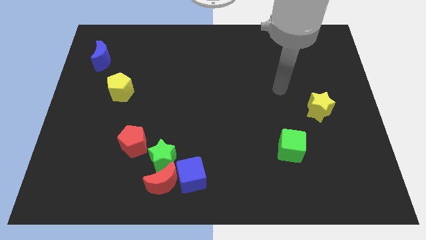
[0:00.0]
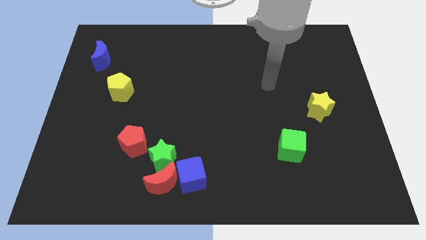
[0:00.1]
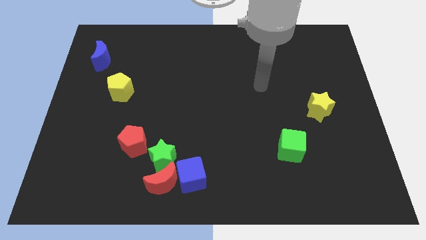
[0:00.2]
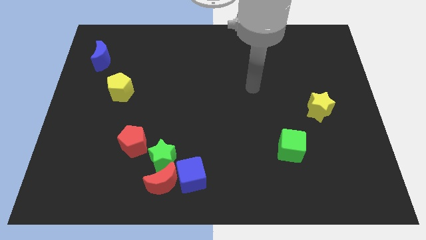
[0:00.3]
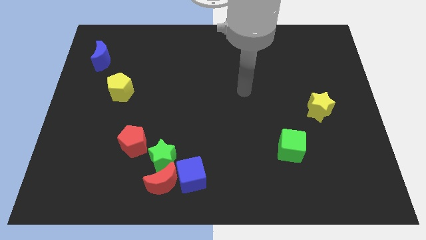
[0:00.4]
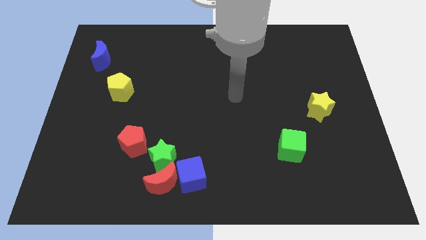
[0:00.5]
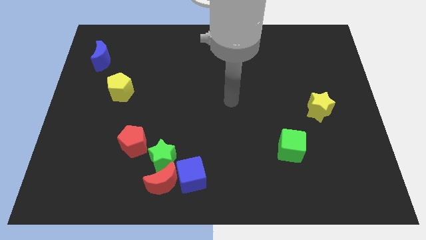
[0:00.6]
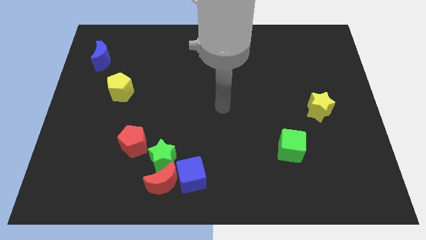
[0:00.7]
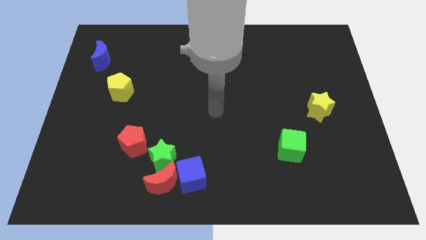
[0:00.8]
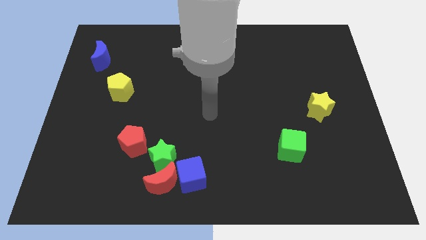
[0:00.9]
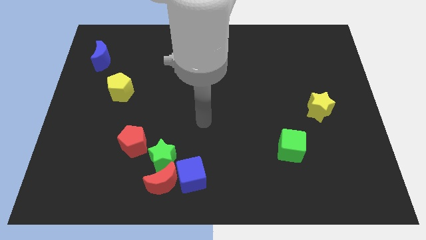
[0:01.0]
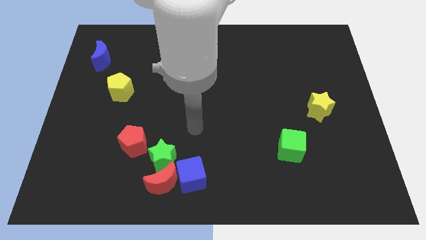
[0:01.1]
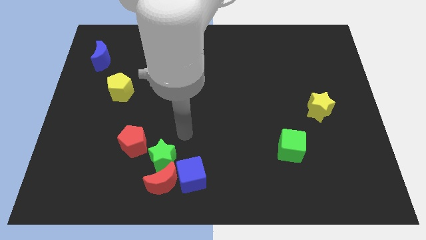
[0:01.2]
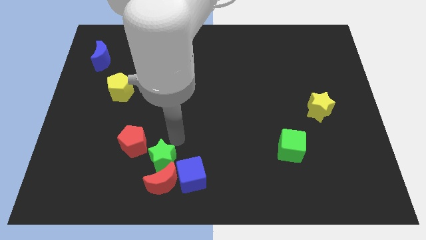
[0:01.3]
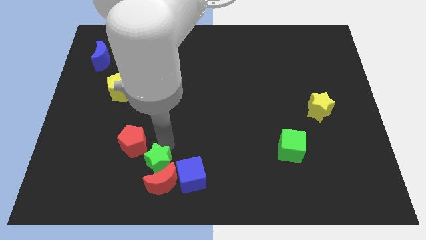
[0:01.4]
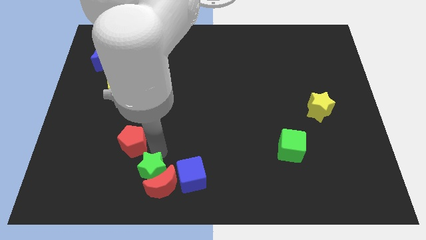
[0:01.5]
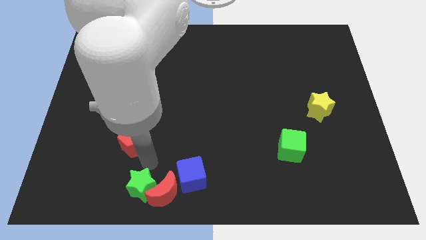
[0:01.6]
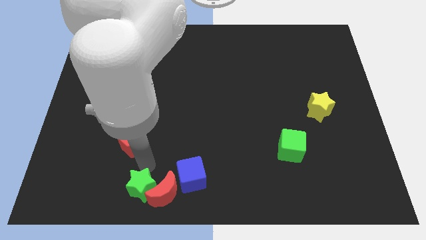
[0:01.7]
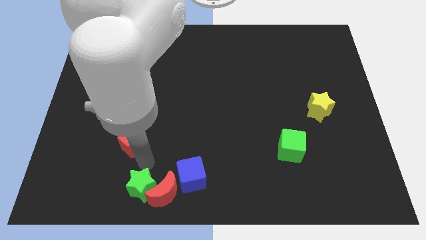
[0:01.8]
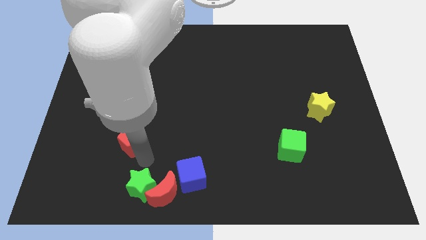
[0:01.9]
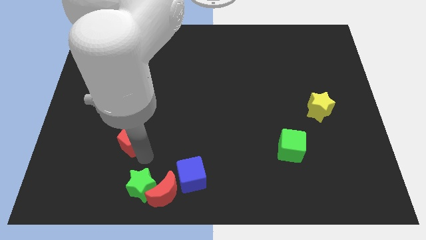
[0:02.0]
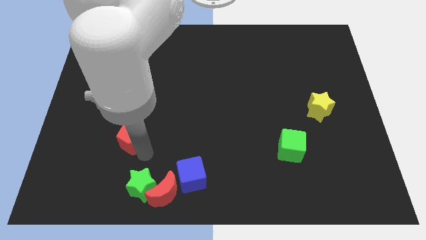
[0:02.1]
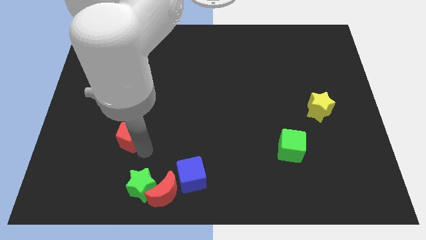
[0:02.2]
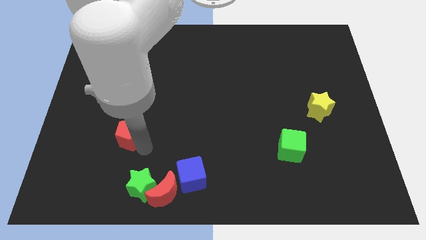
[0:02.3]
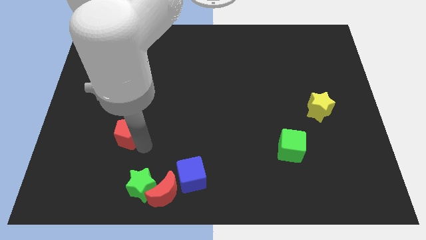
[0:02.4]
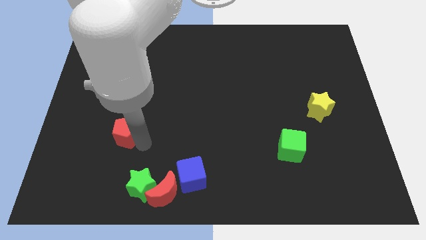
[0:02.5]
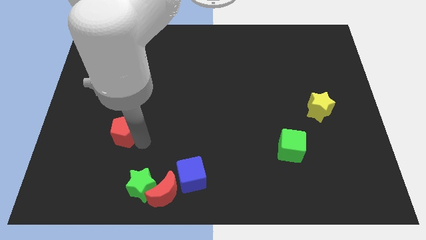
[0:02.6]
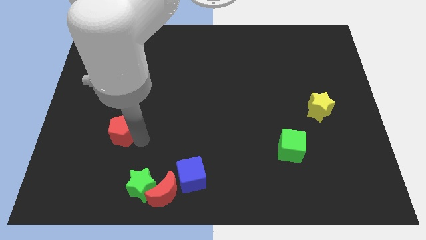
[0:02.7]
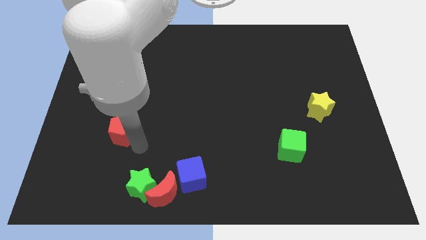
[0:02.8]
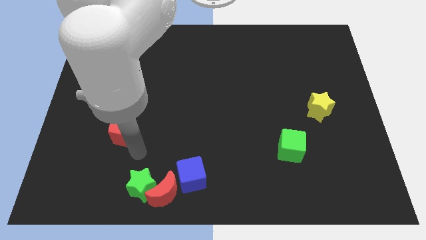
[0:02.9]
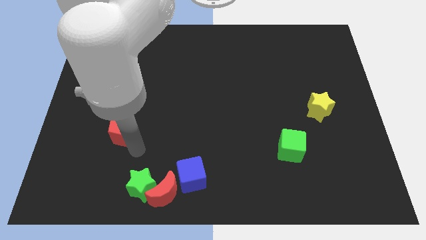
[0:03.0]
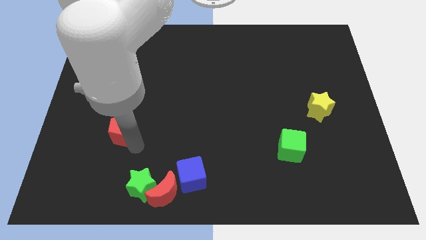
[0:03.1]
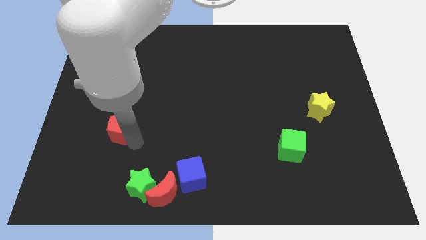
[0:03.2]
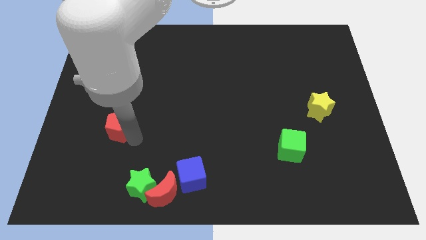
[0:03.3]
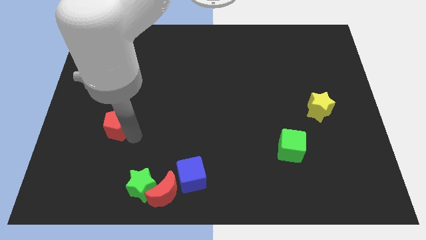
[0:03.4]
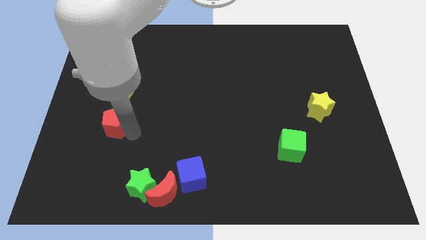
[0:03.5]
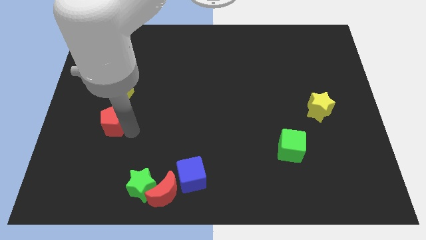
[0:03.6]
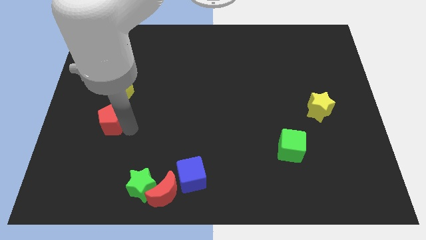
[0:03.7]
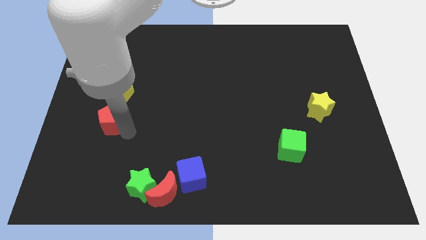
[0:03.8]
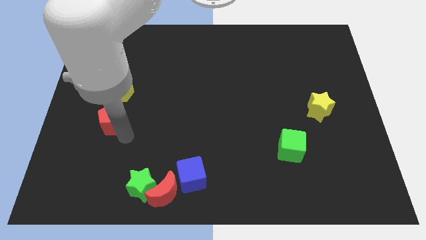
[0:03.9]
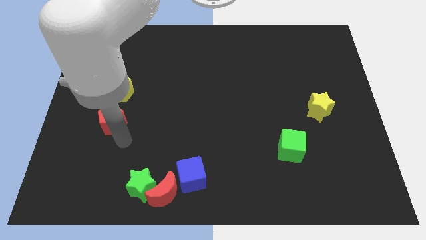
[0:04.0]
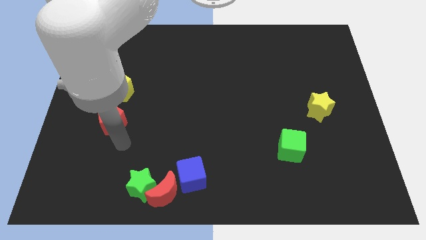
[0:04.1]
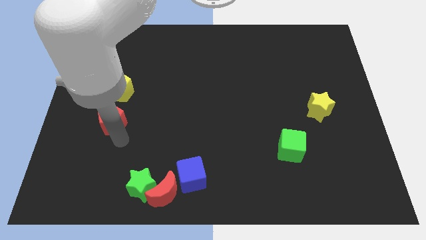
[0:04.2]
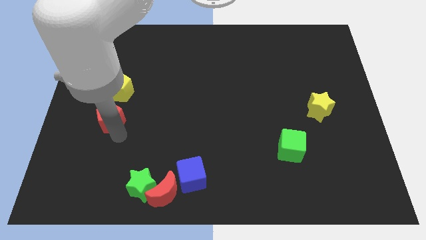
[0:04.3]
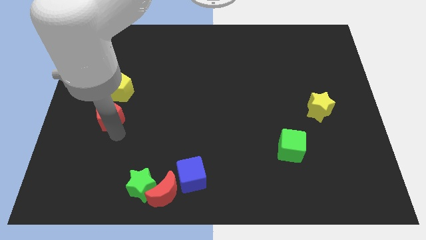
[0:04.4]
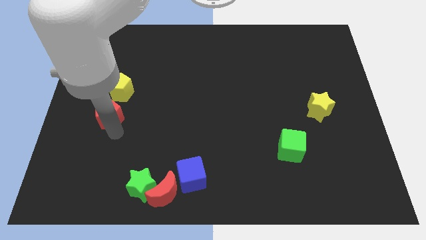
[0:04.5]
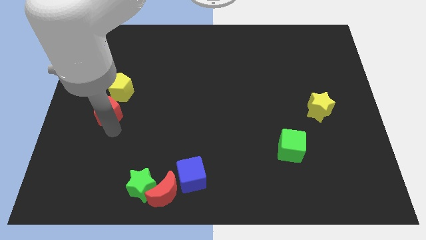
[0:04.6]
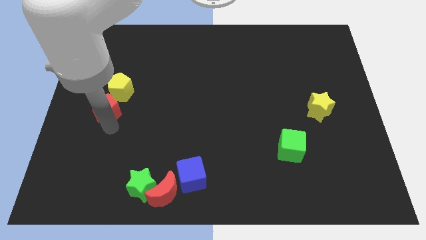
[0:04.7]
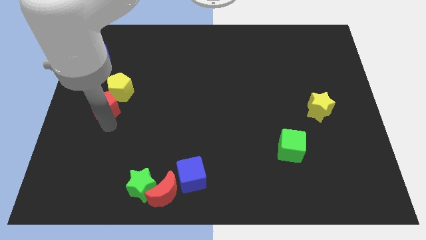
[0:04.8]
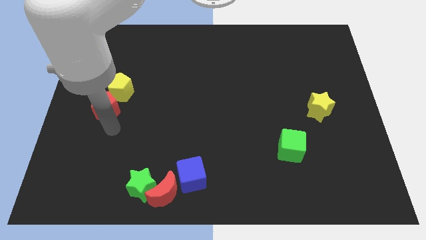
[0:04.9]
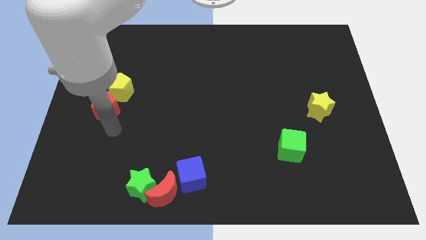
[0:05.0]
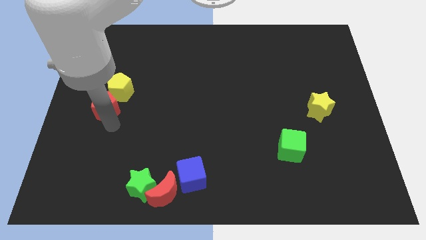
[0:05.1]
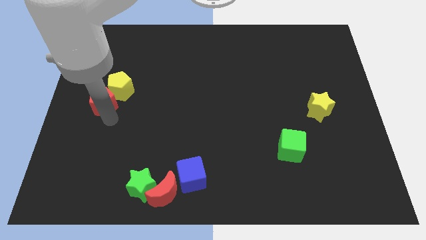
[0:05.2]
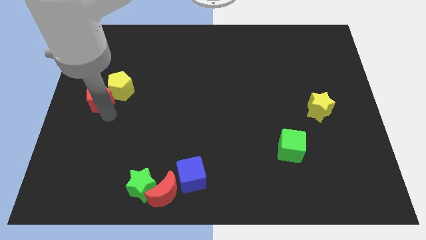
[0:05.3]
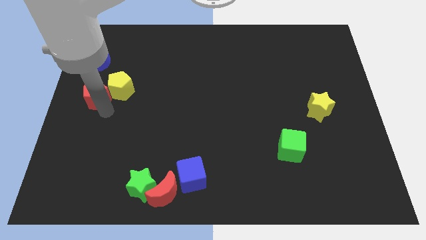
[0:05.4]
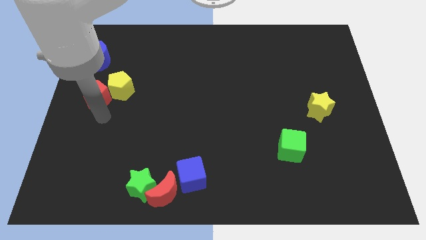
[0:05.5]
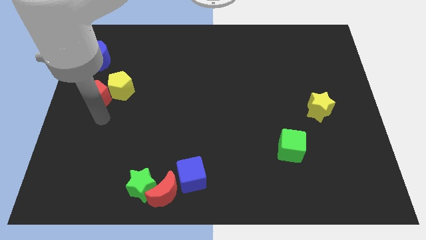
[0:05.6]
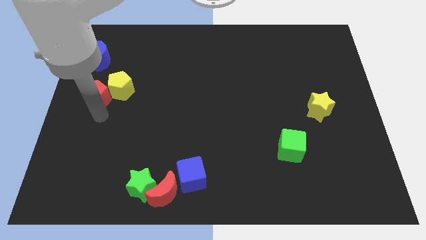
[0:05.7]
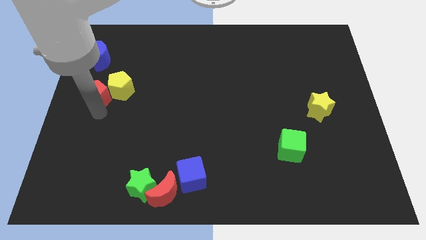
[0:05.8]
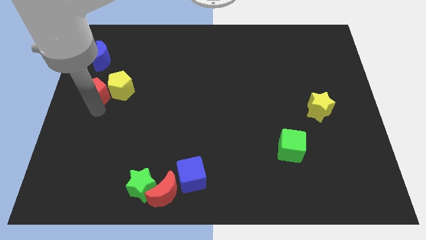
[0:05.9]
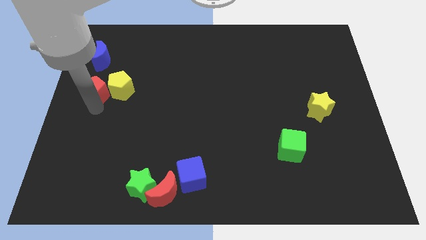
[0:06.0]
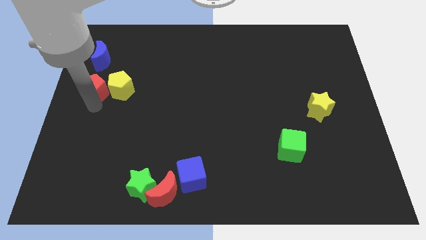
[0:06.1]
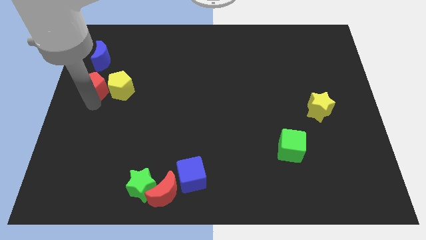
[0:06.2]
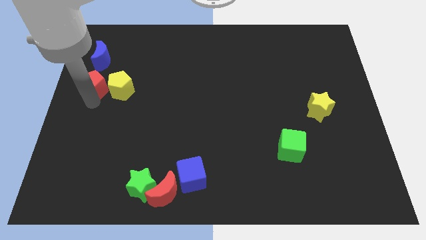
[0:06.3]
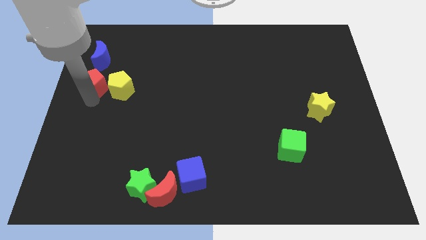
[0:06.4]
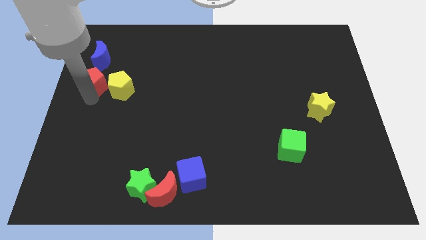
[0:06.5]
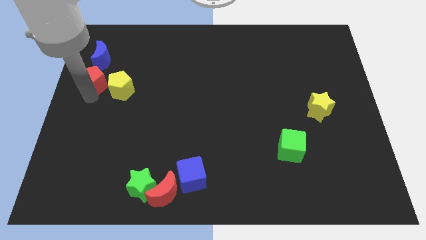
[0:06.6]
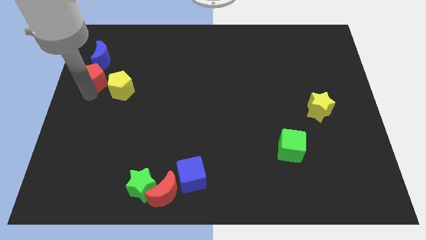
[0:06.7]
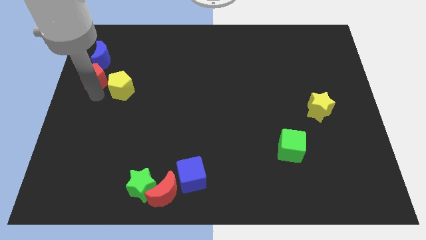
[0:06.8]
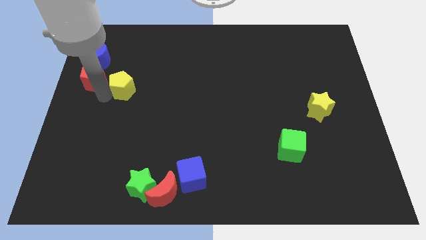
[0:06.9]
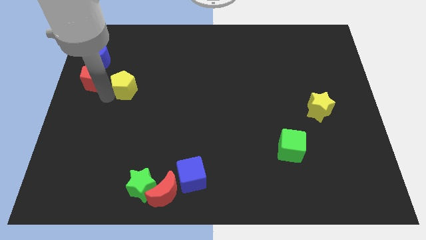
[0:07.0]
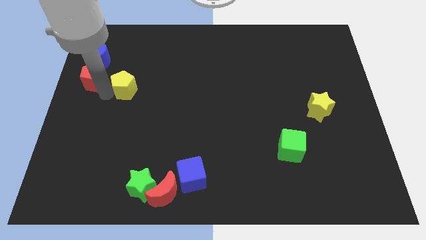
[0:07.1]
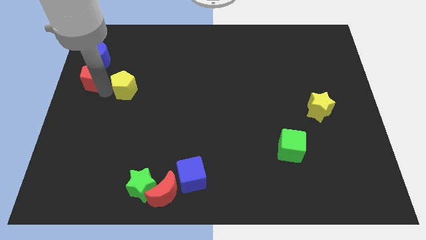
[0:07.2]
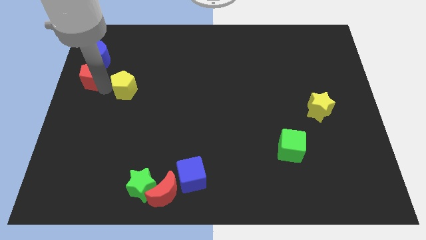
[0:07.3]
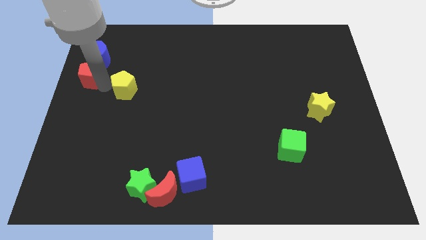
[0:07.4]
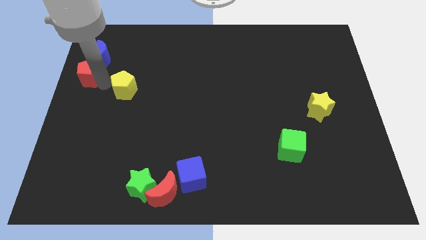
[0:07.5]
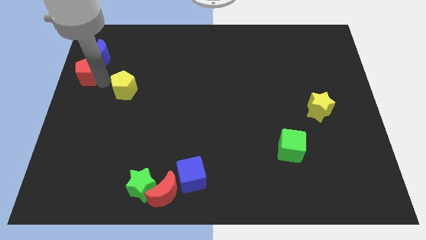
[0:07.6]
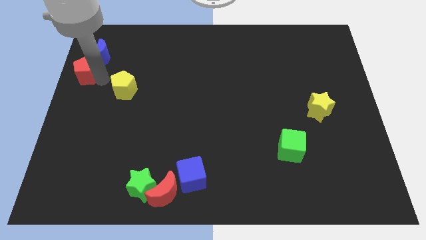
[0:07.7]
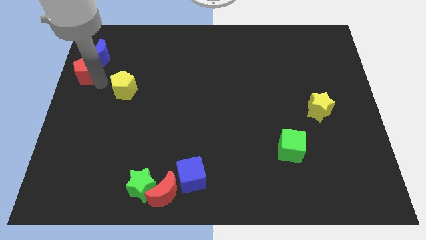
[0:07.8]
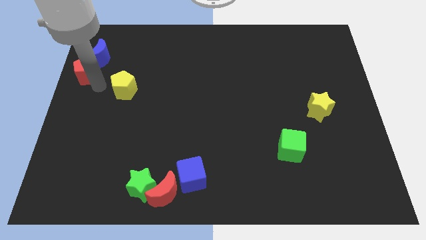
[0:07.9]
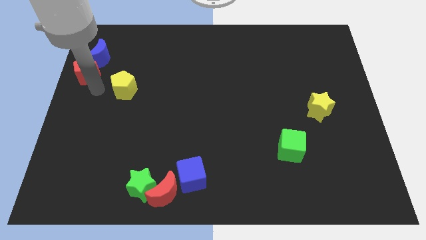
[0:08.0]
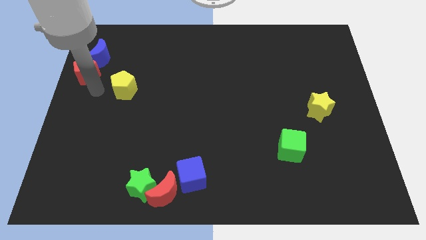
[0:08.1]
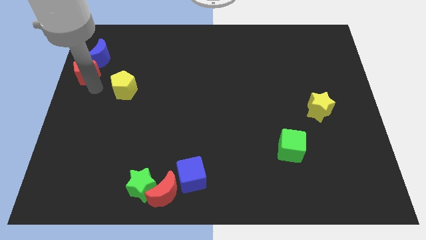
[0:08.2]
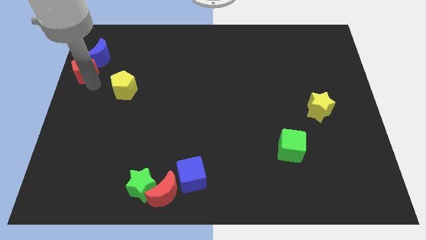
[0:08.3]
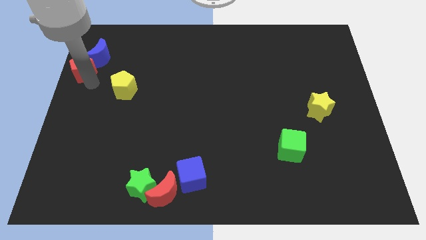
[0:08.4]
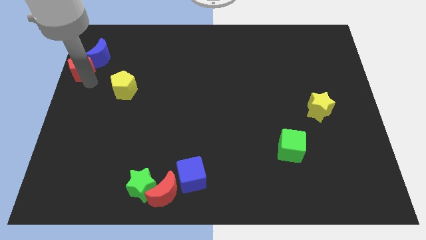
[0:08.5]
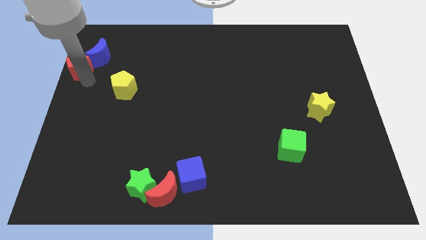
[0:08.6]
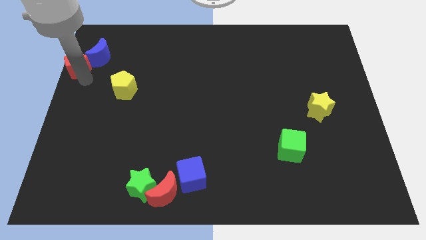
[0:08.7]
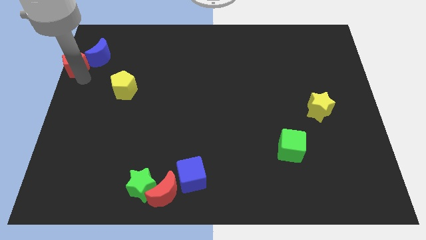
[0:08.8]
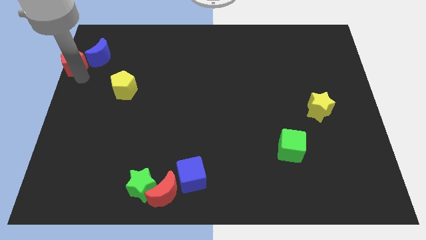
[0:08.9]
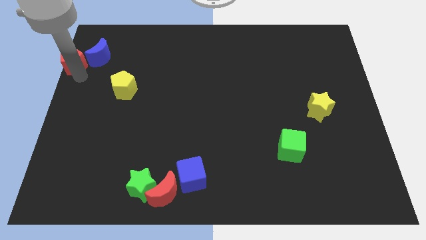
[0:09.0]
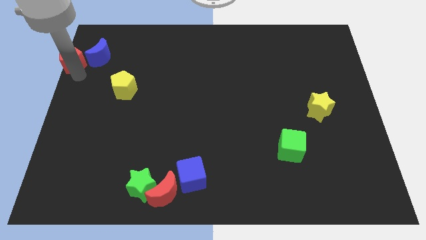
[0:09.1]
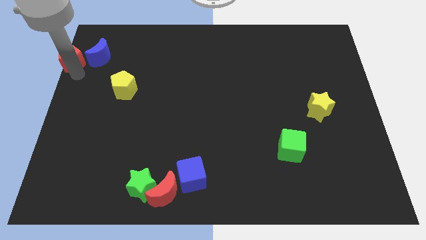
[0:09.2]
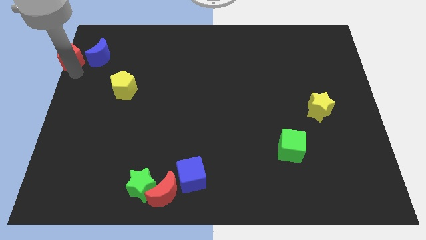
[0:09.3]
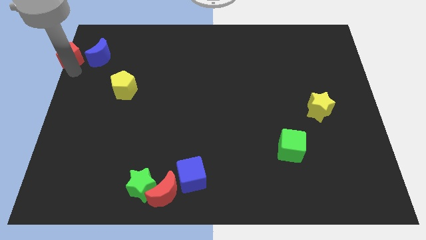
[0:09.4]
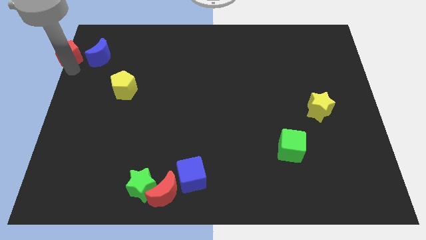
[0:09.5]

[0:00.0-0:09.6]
push the red pentagon to the upper left corner
